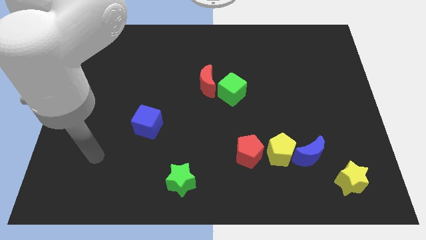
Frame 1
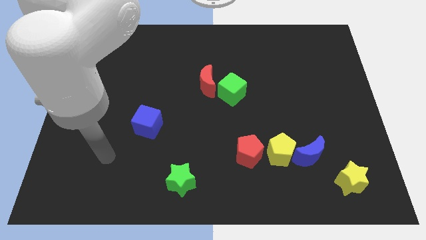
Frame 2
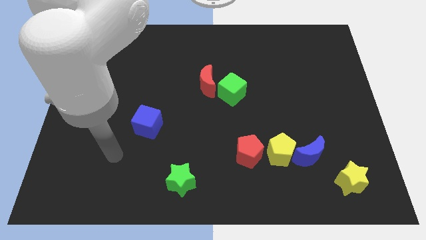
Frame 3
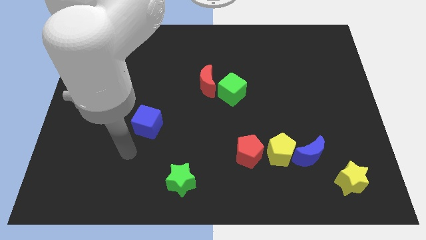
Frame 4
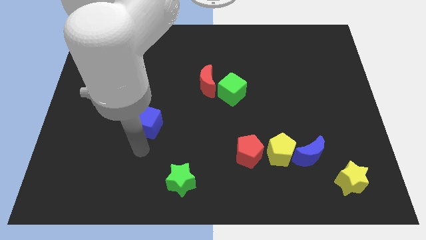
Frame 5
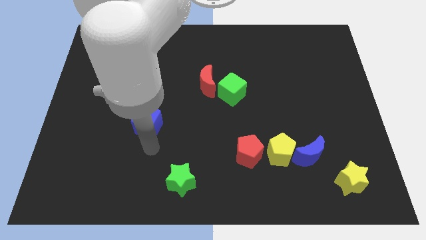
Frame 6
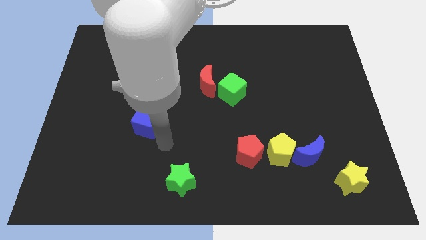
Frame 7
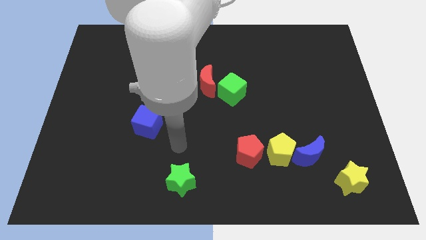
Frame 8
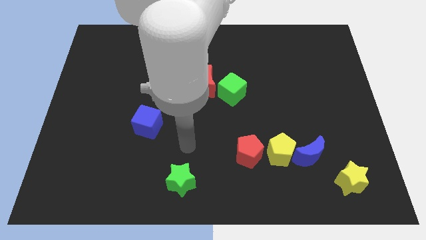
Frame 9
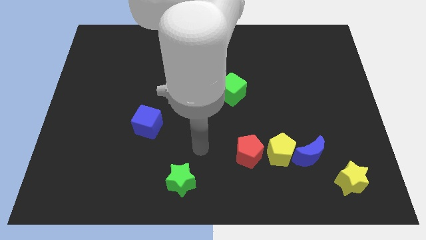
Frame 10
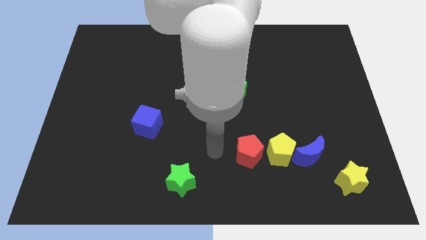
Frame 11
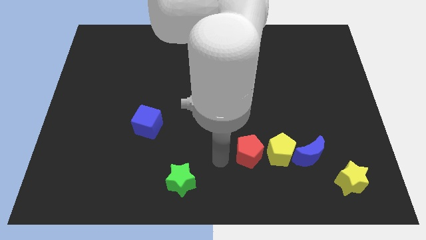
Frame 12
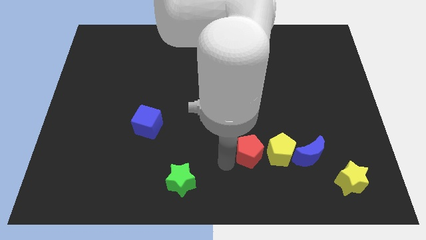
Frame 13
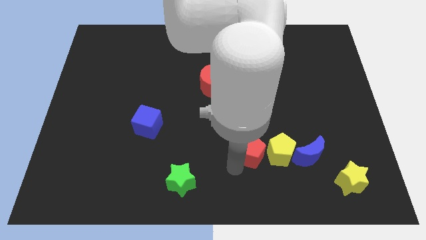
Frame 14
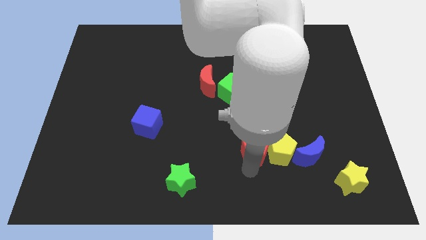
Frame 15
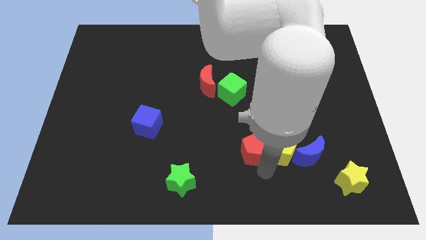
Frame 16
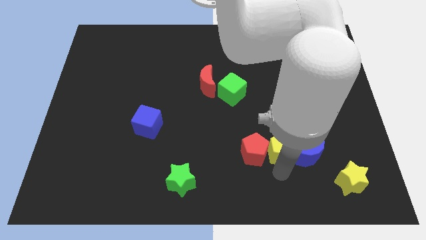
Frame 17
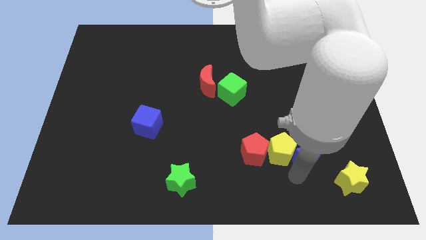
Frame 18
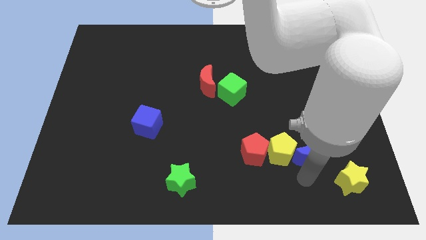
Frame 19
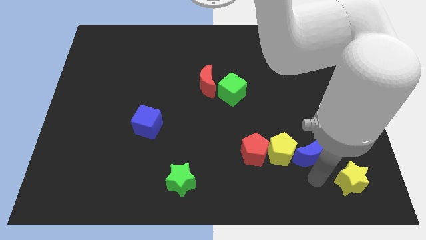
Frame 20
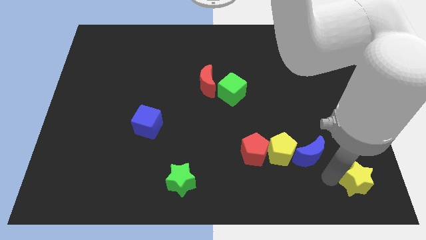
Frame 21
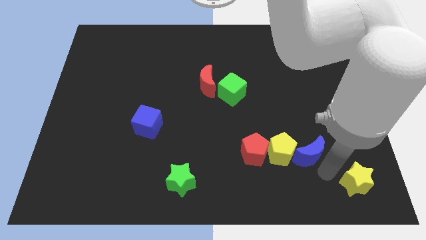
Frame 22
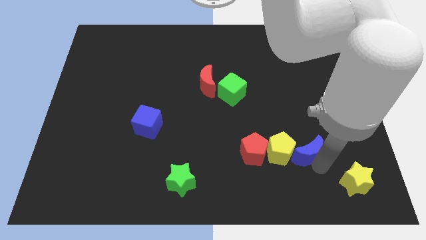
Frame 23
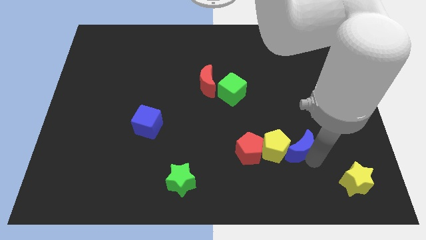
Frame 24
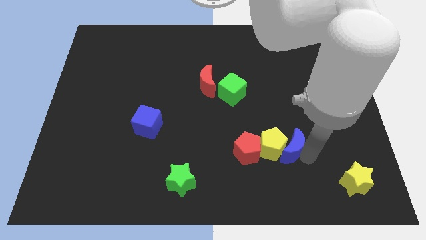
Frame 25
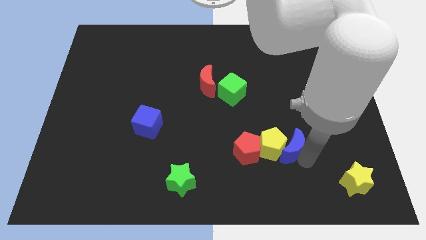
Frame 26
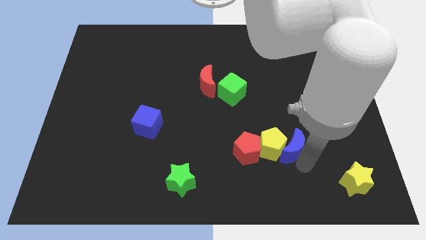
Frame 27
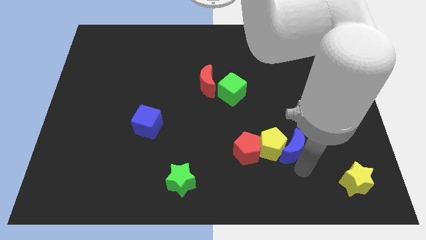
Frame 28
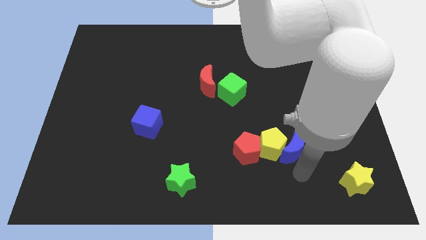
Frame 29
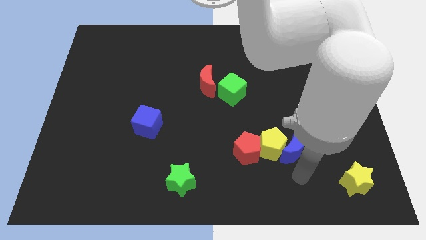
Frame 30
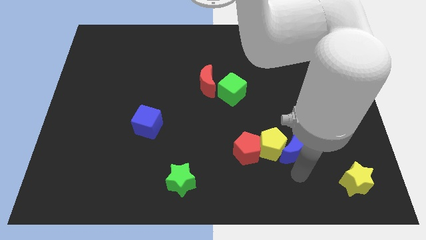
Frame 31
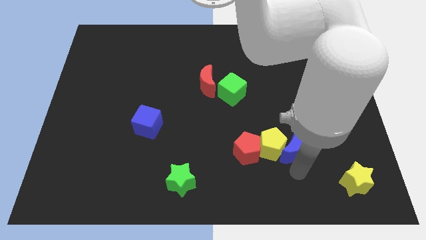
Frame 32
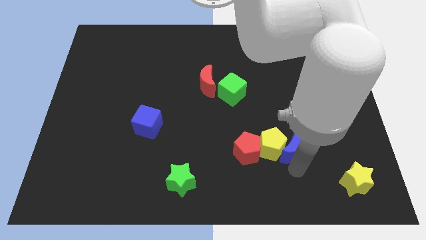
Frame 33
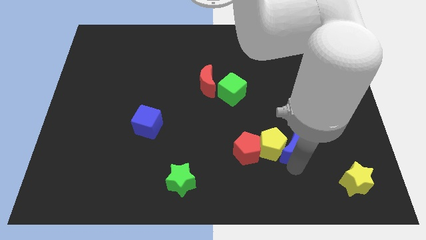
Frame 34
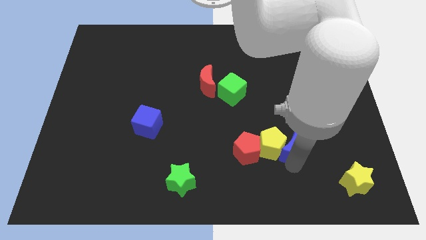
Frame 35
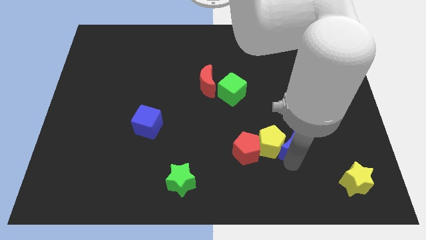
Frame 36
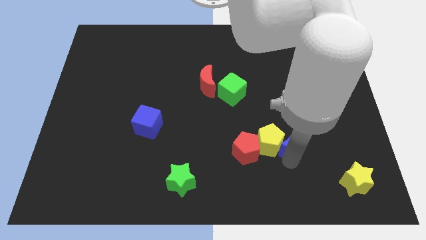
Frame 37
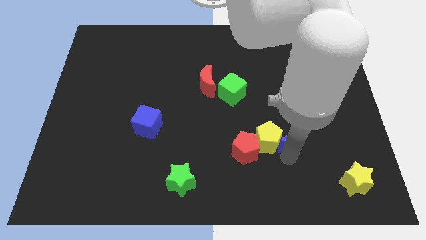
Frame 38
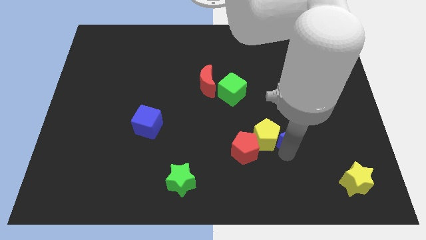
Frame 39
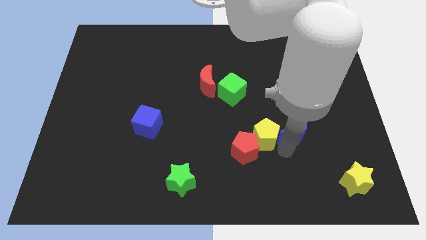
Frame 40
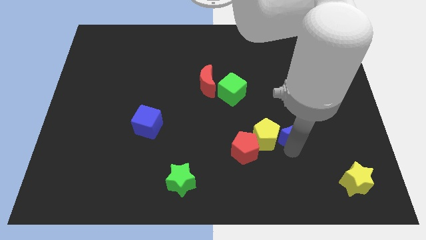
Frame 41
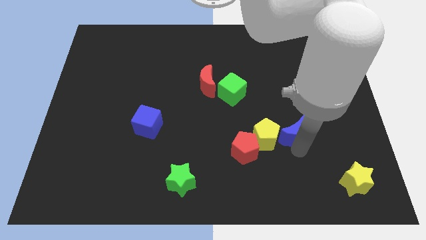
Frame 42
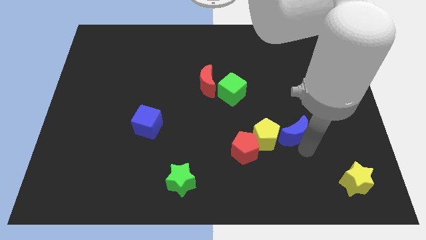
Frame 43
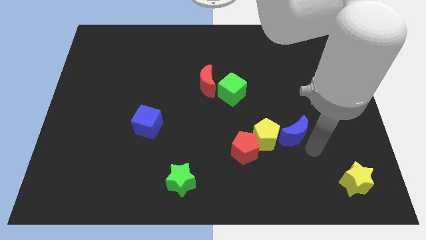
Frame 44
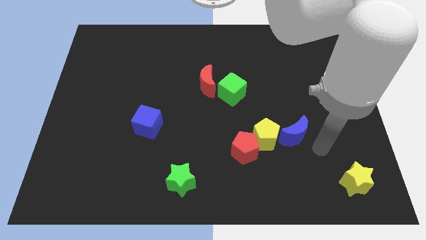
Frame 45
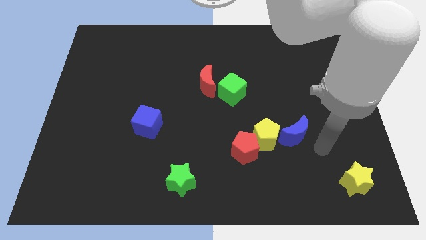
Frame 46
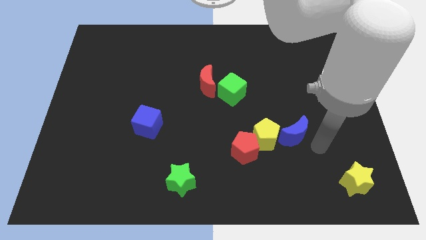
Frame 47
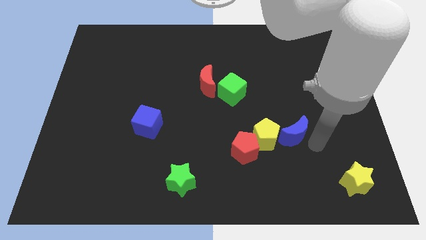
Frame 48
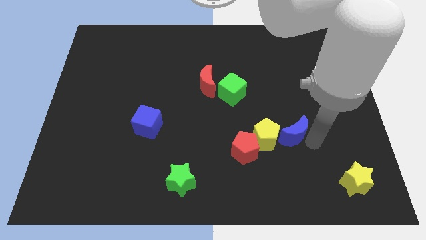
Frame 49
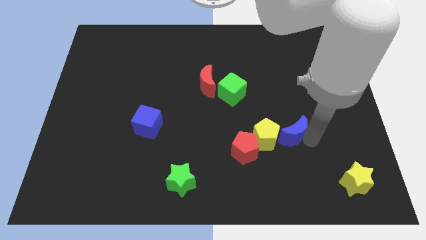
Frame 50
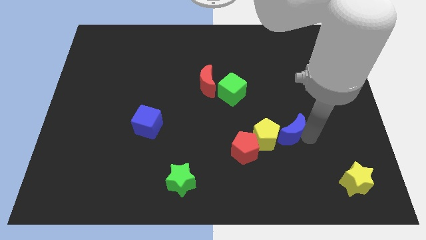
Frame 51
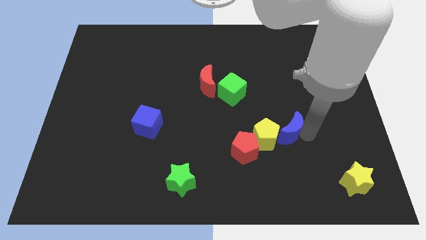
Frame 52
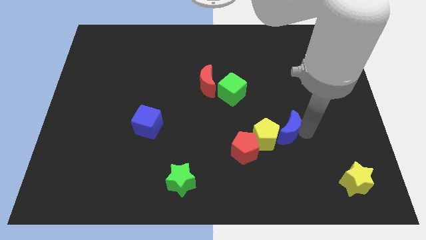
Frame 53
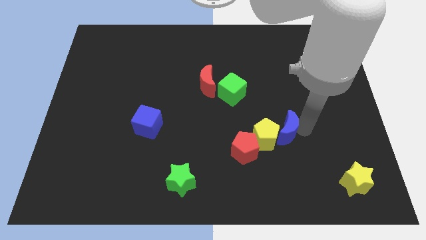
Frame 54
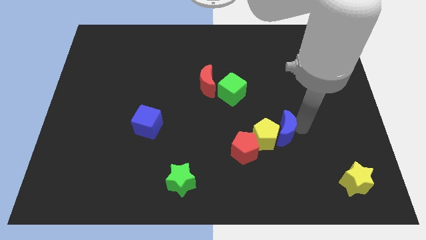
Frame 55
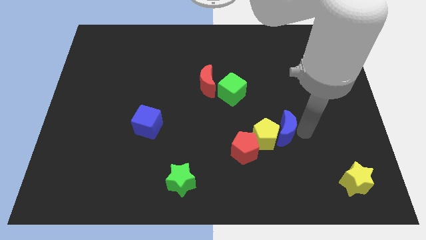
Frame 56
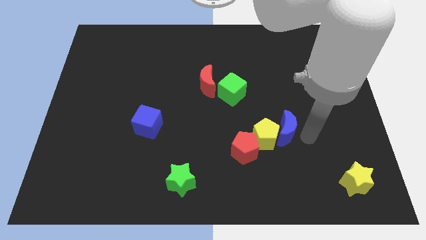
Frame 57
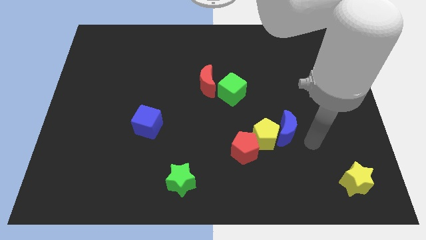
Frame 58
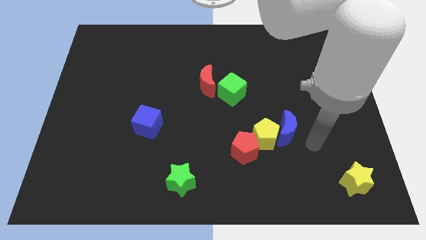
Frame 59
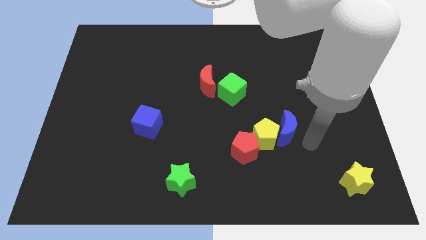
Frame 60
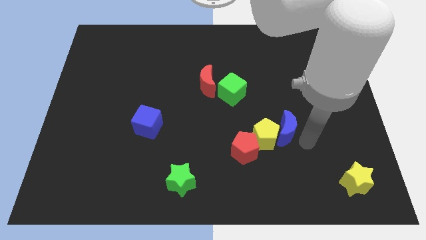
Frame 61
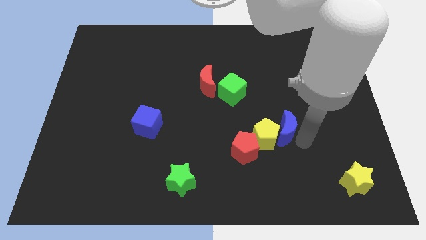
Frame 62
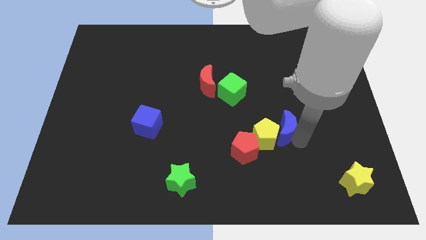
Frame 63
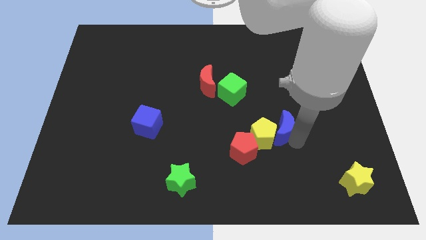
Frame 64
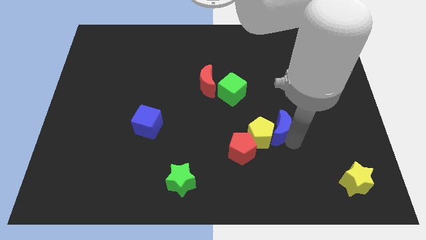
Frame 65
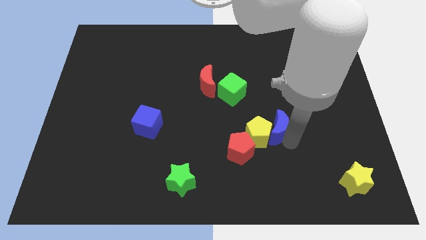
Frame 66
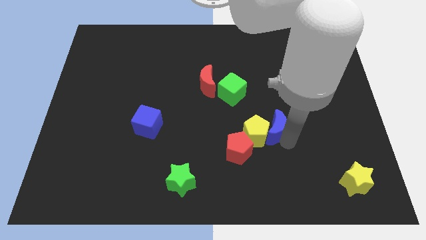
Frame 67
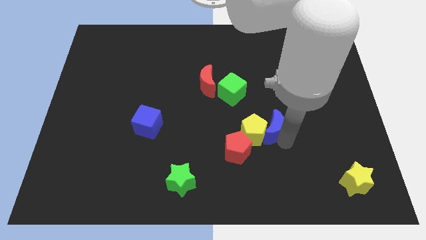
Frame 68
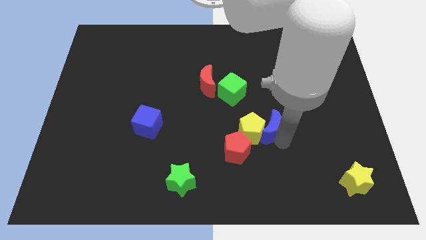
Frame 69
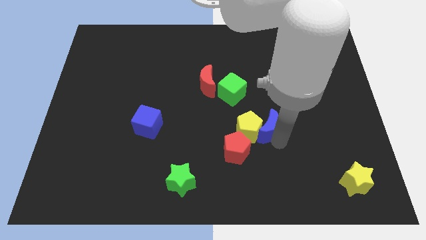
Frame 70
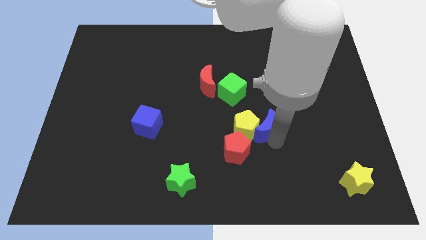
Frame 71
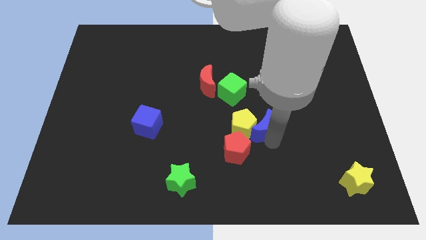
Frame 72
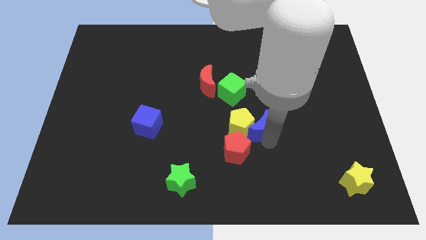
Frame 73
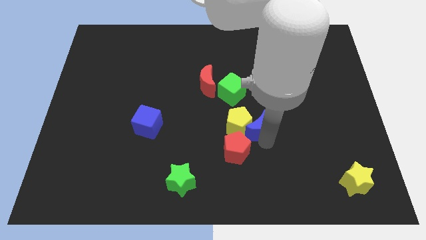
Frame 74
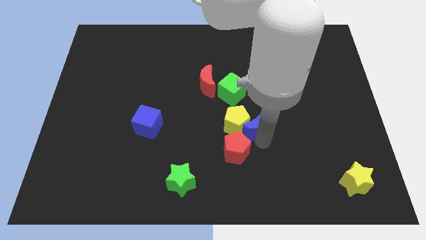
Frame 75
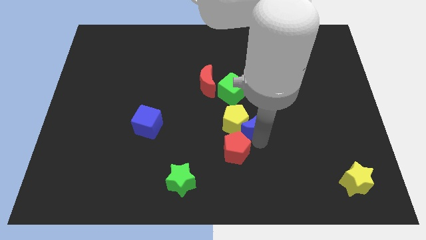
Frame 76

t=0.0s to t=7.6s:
put the blue moon to the center
